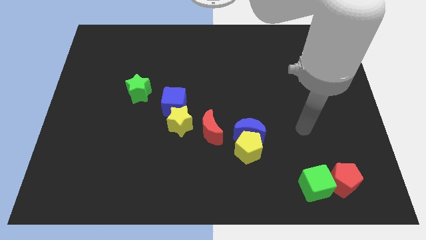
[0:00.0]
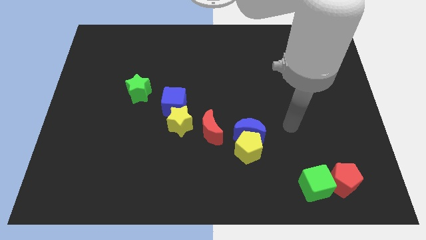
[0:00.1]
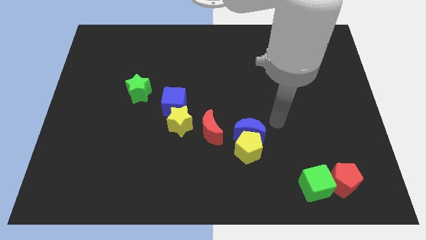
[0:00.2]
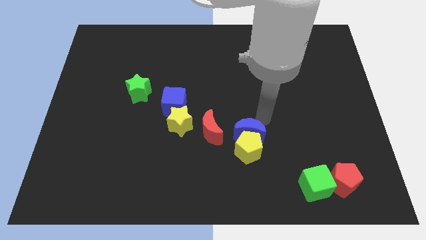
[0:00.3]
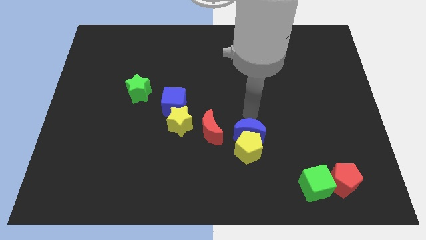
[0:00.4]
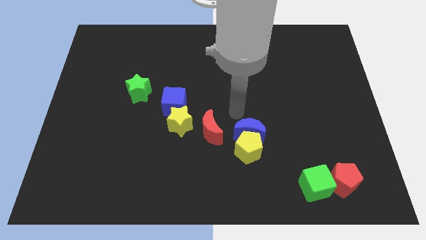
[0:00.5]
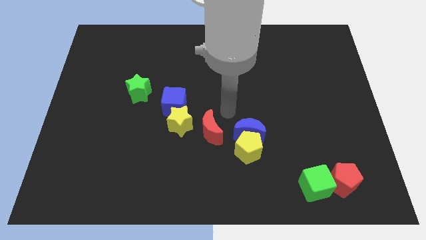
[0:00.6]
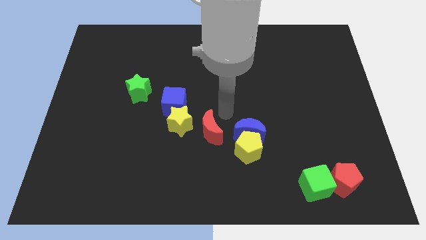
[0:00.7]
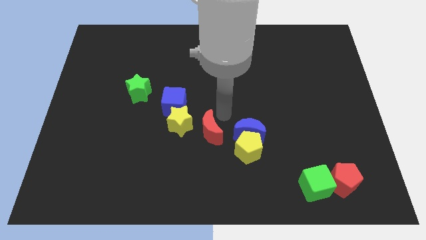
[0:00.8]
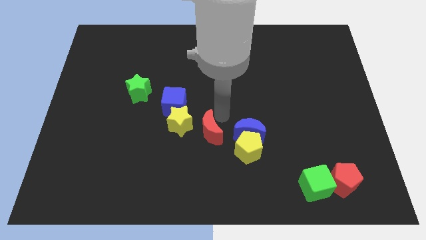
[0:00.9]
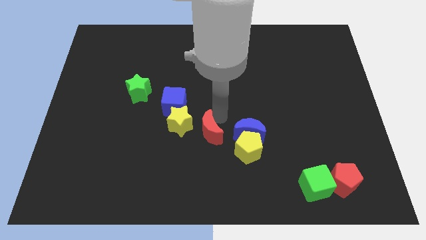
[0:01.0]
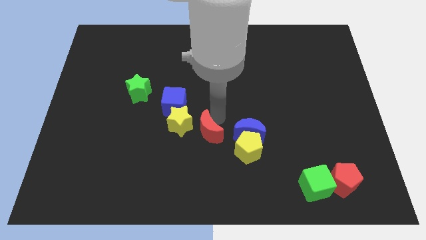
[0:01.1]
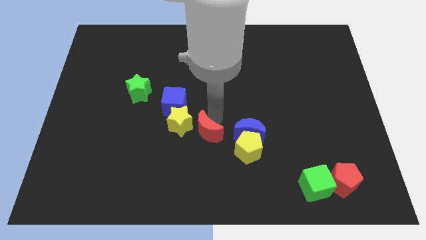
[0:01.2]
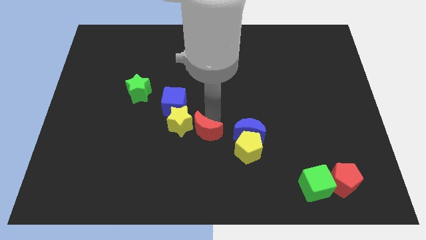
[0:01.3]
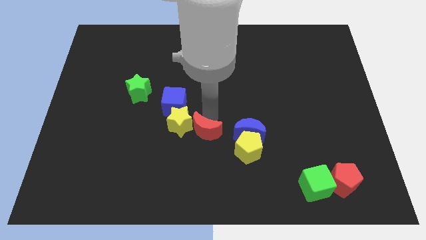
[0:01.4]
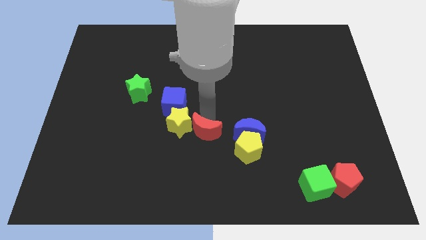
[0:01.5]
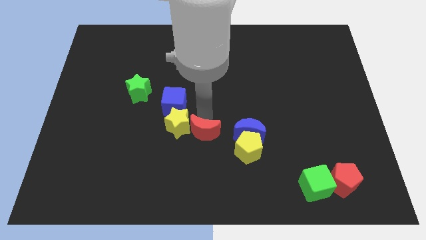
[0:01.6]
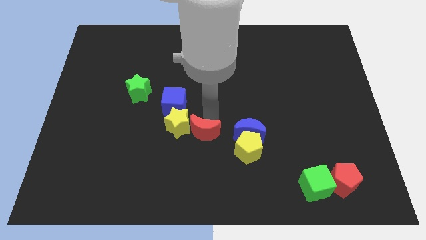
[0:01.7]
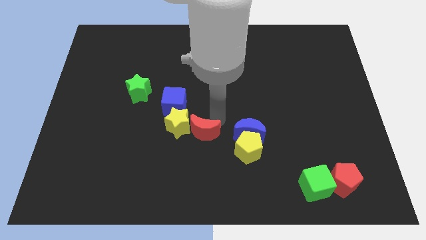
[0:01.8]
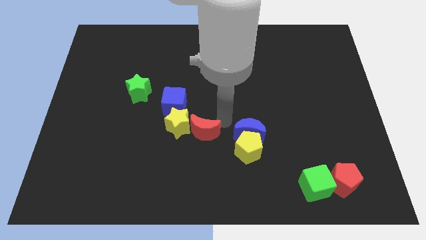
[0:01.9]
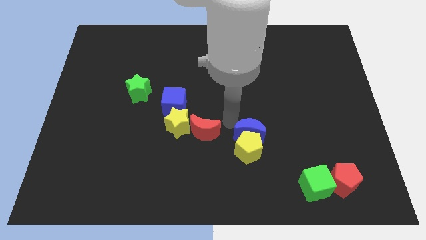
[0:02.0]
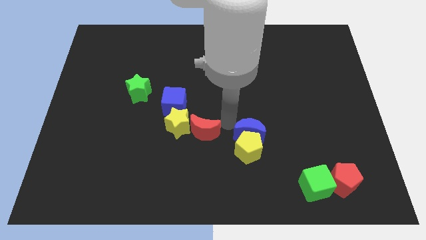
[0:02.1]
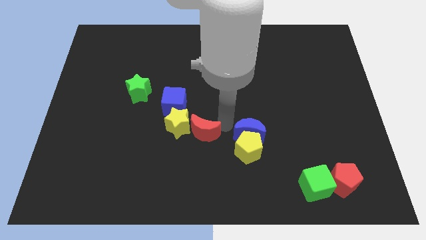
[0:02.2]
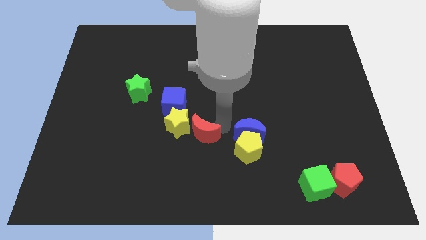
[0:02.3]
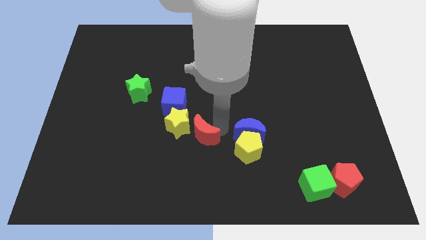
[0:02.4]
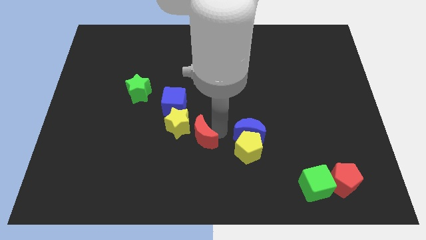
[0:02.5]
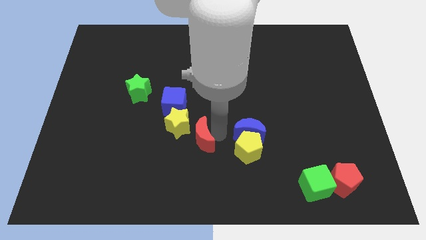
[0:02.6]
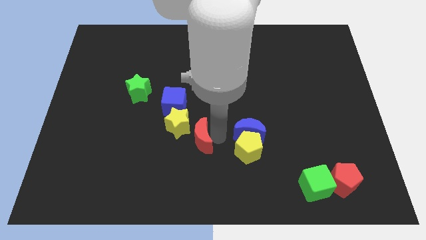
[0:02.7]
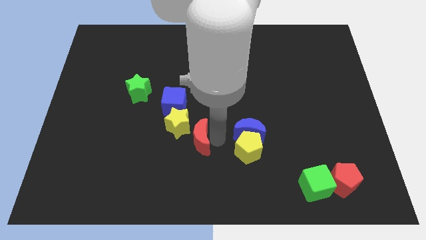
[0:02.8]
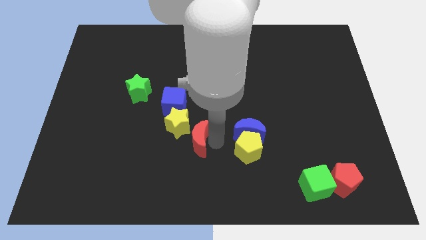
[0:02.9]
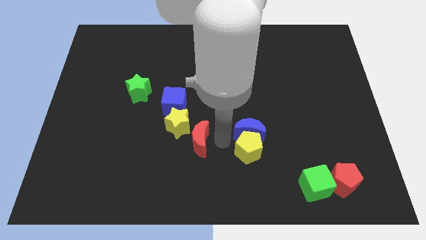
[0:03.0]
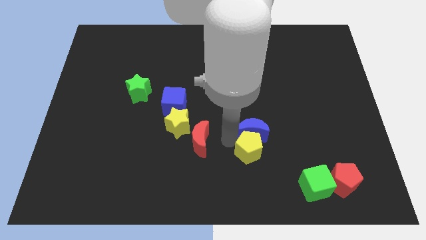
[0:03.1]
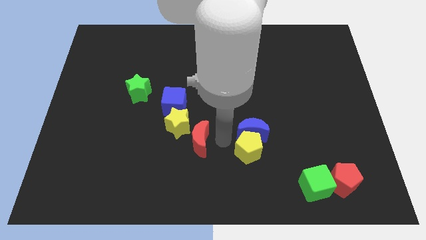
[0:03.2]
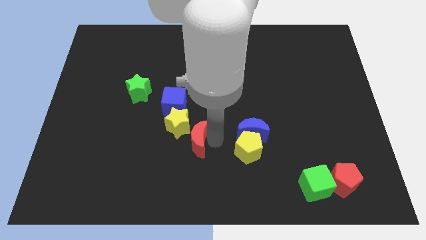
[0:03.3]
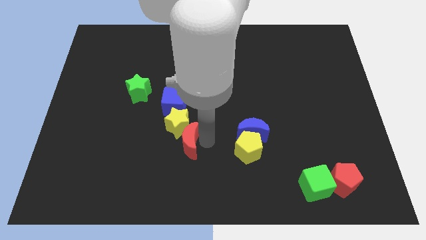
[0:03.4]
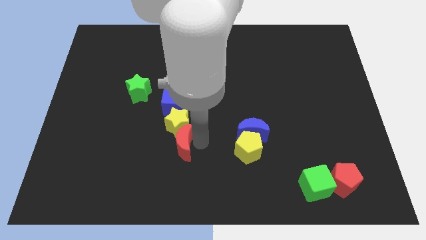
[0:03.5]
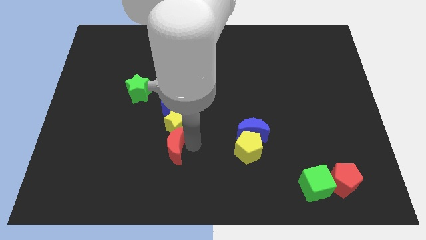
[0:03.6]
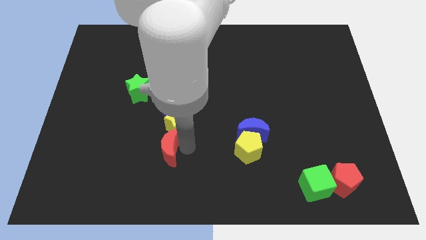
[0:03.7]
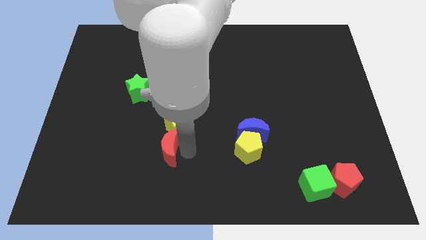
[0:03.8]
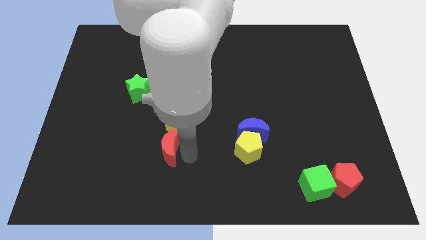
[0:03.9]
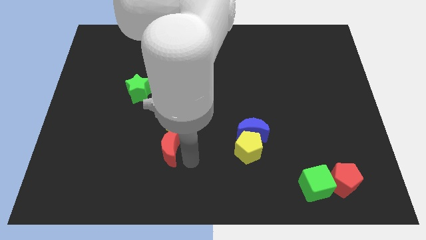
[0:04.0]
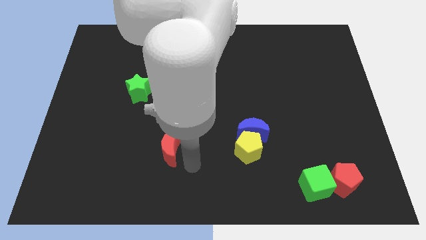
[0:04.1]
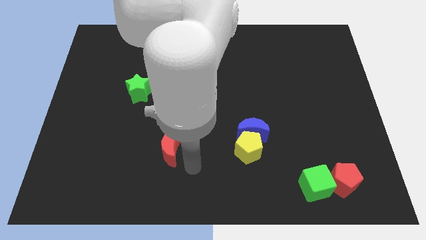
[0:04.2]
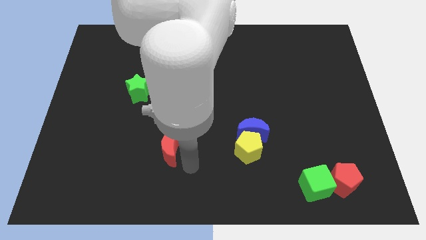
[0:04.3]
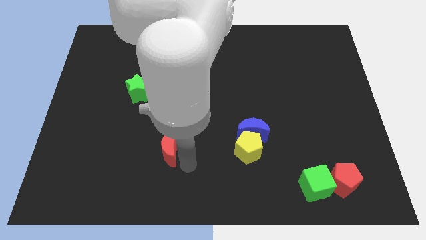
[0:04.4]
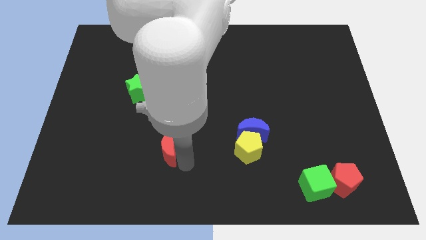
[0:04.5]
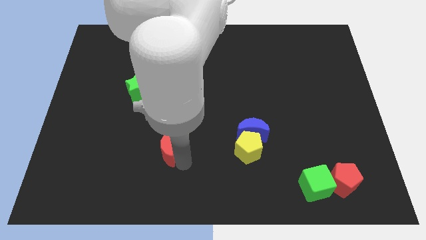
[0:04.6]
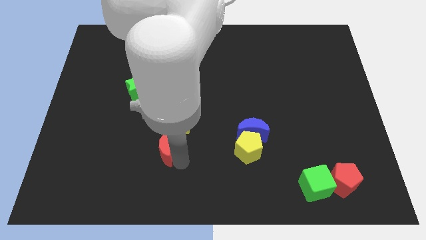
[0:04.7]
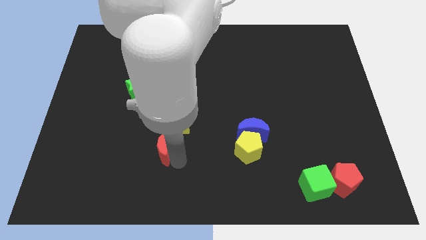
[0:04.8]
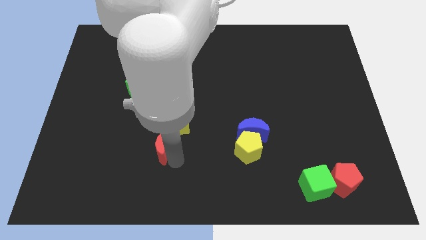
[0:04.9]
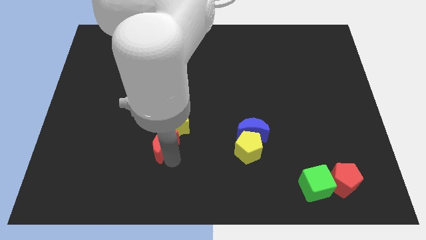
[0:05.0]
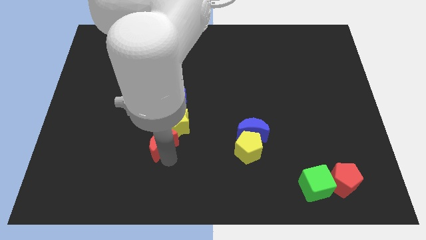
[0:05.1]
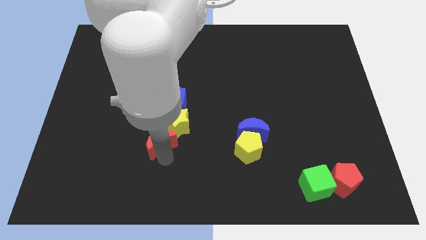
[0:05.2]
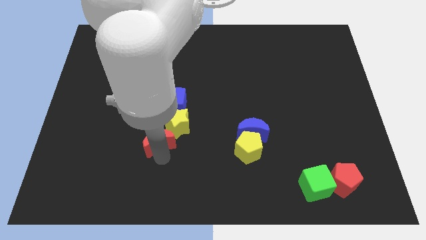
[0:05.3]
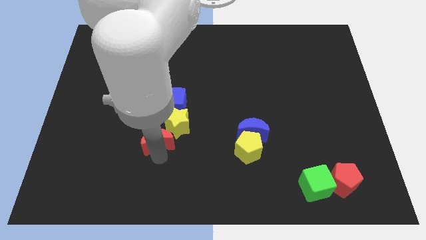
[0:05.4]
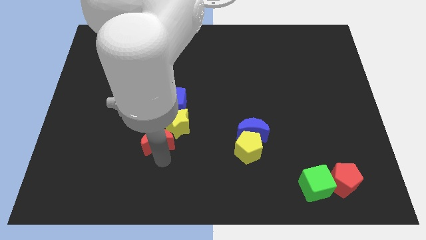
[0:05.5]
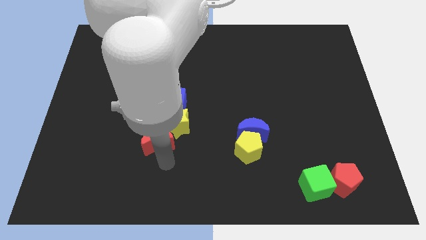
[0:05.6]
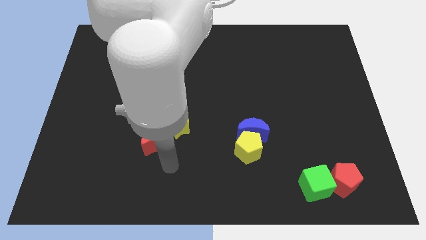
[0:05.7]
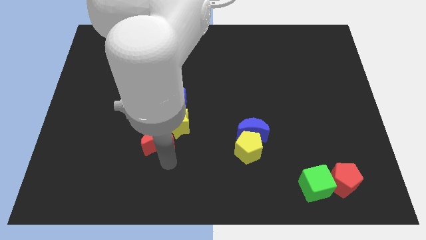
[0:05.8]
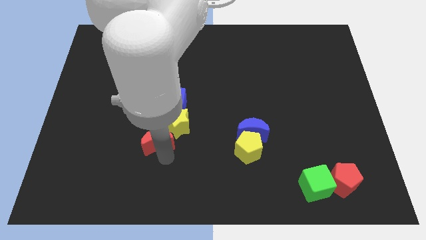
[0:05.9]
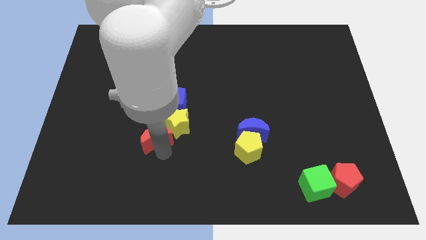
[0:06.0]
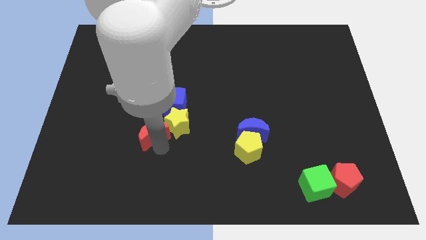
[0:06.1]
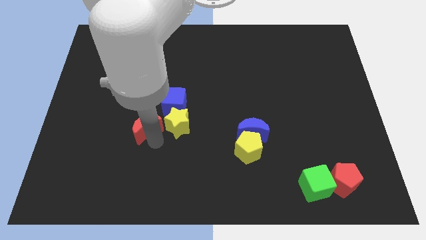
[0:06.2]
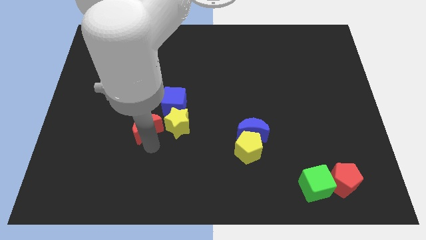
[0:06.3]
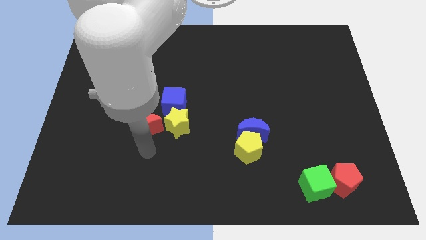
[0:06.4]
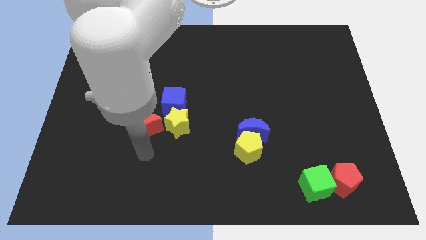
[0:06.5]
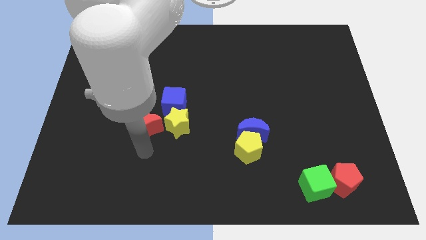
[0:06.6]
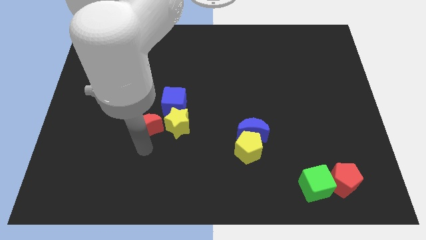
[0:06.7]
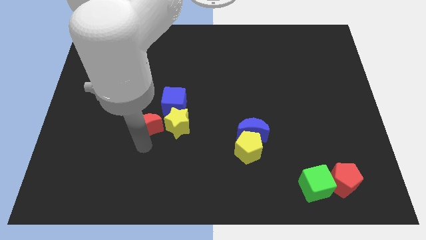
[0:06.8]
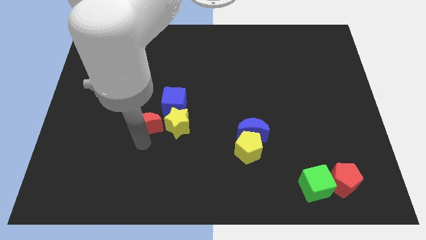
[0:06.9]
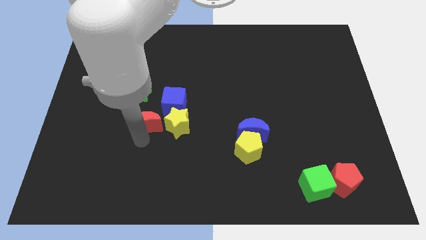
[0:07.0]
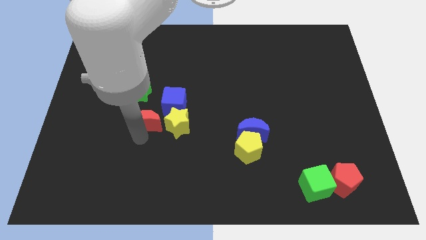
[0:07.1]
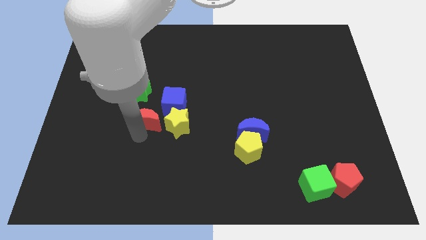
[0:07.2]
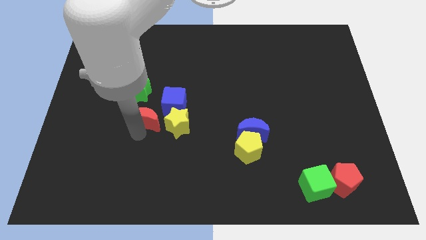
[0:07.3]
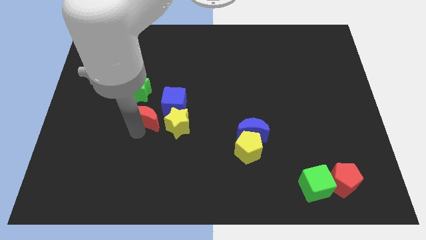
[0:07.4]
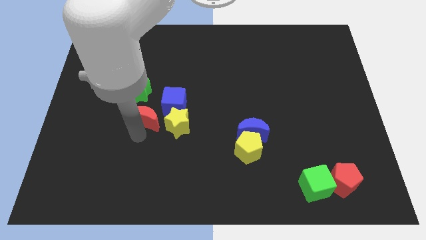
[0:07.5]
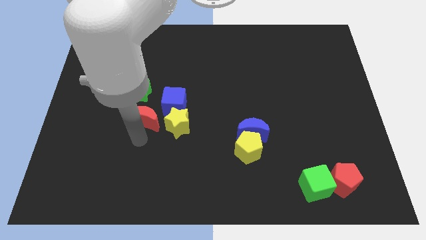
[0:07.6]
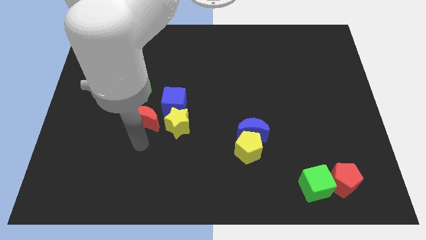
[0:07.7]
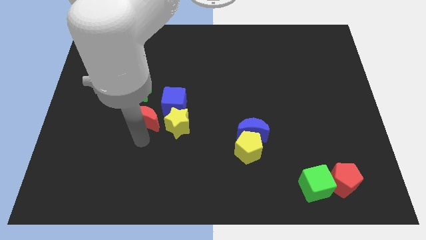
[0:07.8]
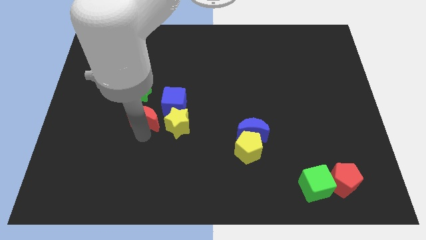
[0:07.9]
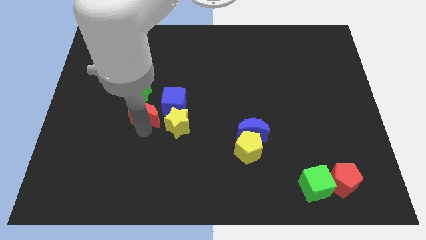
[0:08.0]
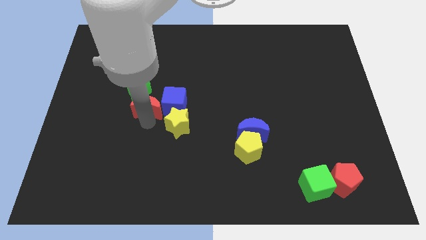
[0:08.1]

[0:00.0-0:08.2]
slide the red moon close to the green star
